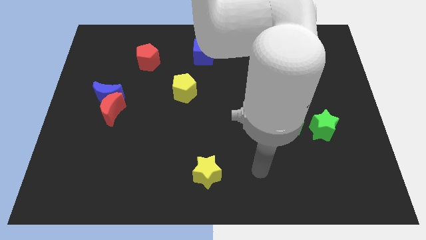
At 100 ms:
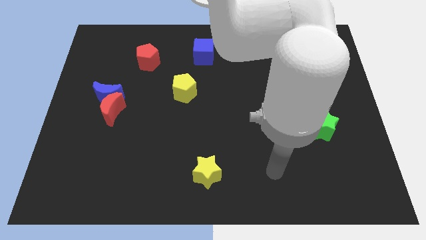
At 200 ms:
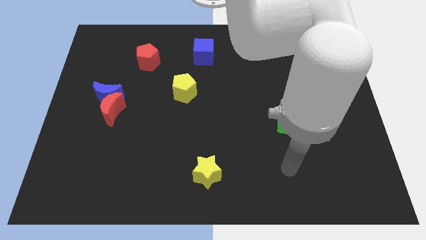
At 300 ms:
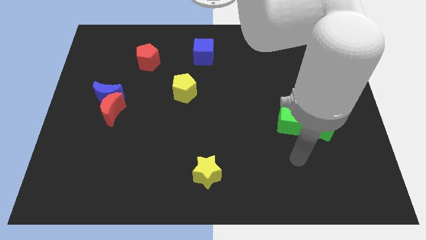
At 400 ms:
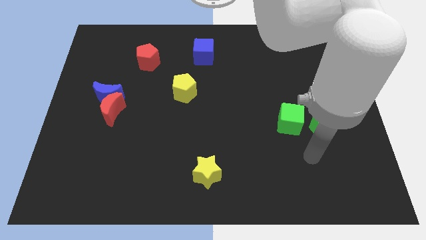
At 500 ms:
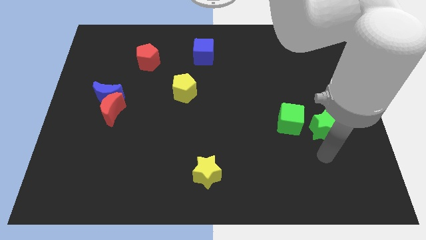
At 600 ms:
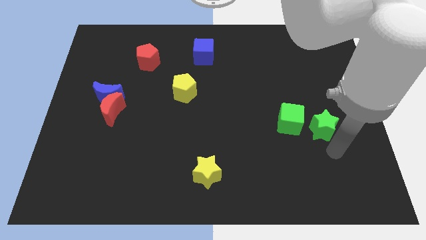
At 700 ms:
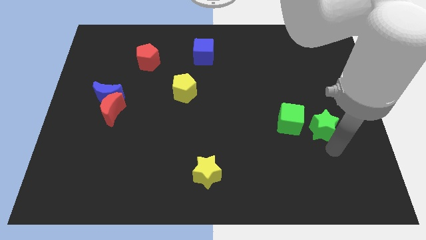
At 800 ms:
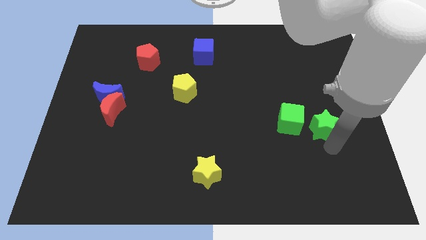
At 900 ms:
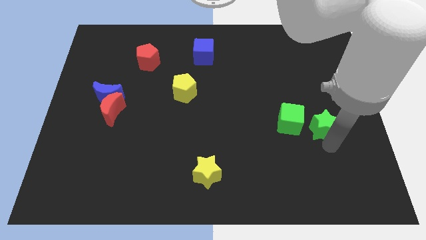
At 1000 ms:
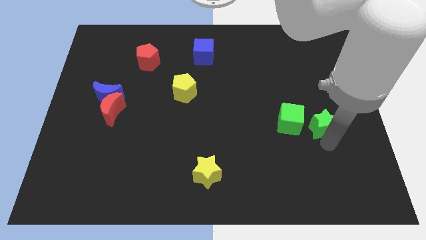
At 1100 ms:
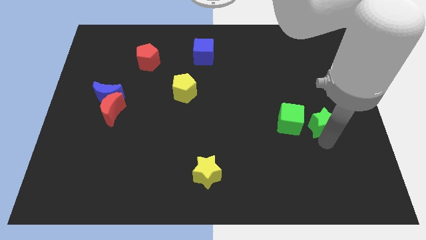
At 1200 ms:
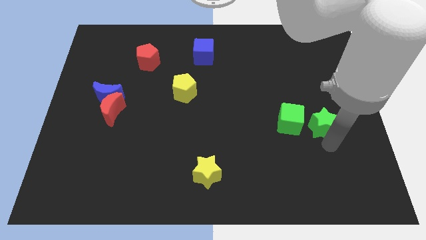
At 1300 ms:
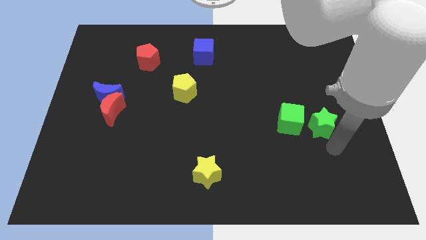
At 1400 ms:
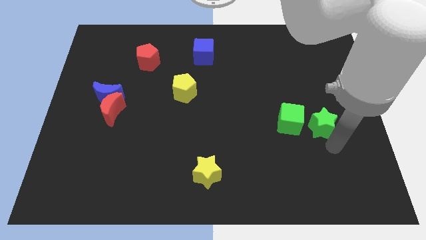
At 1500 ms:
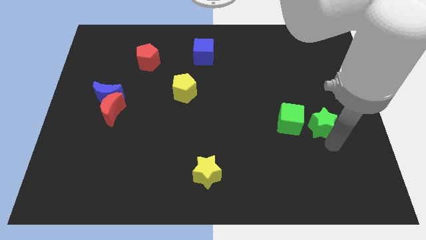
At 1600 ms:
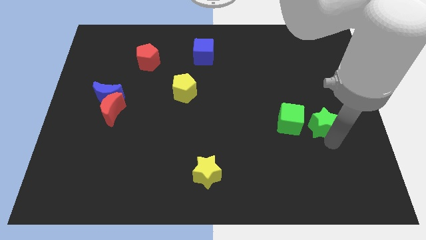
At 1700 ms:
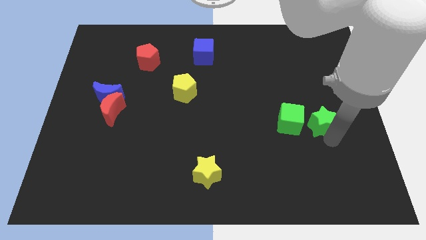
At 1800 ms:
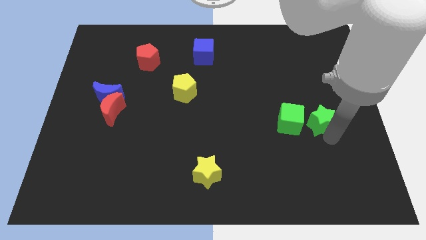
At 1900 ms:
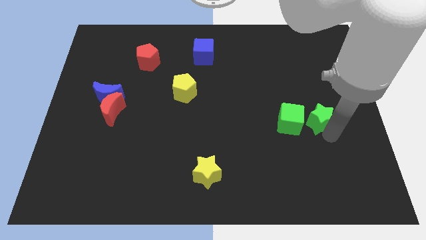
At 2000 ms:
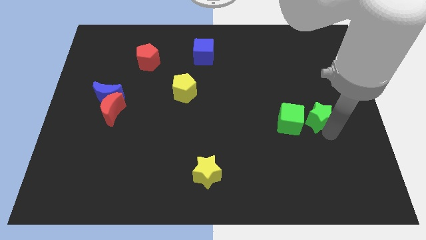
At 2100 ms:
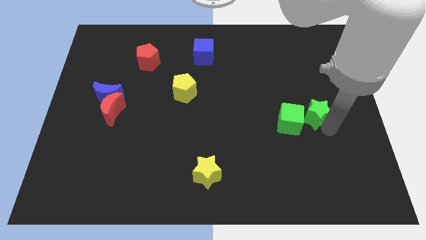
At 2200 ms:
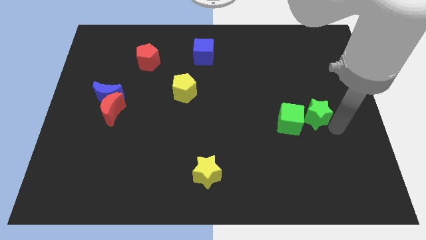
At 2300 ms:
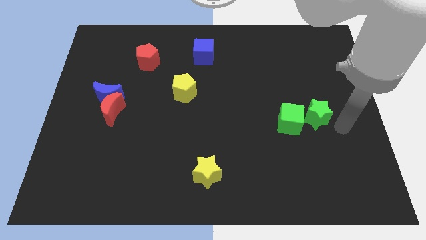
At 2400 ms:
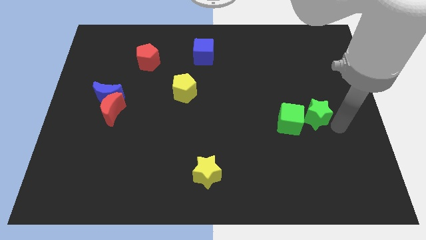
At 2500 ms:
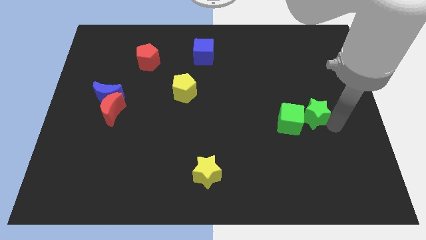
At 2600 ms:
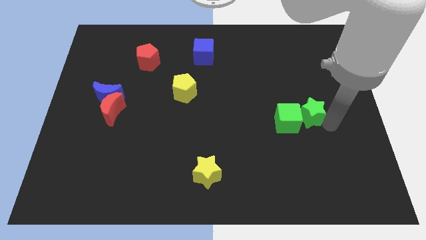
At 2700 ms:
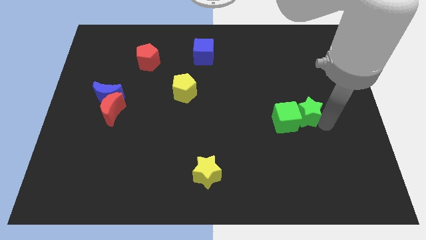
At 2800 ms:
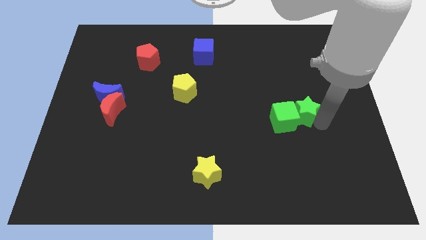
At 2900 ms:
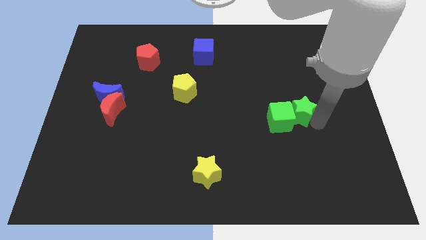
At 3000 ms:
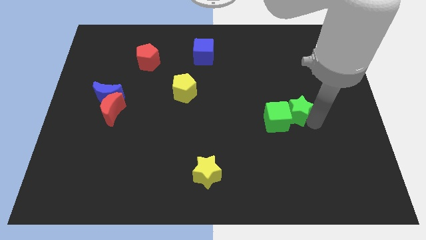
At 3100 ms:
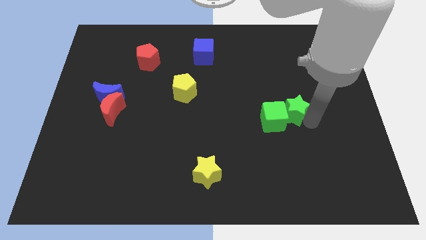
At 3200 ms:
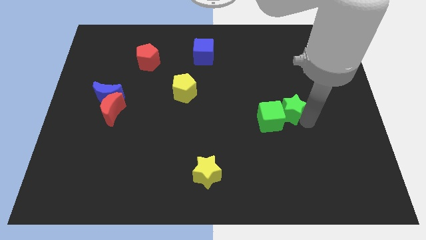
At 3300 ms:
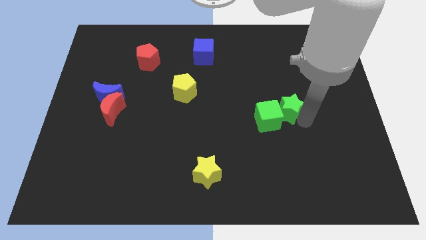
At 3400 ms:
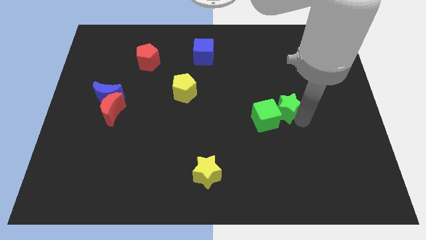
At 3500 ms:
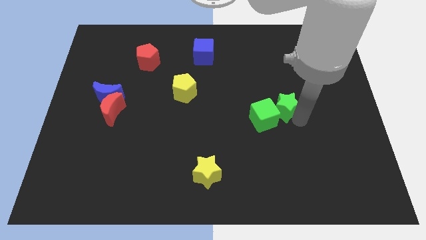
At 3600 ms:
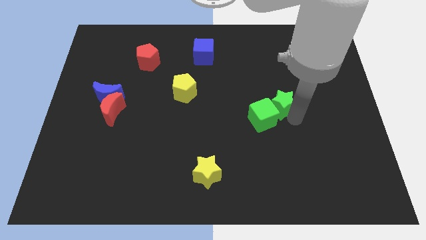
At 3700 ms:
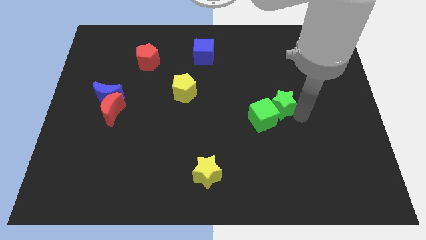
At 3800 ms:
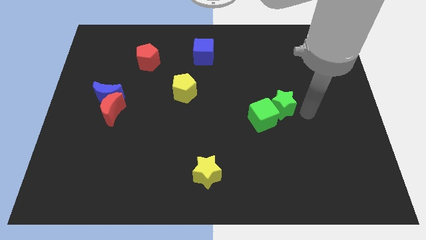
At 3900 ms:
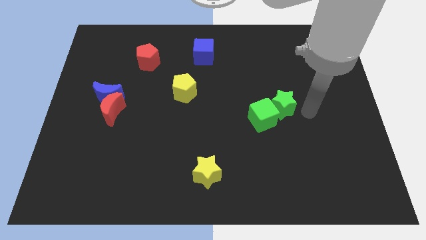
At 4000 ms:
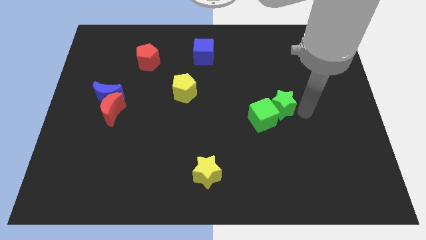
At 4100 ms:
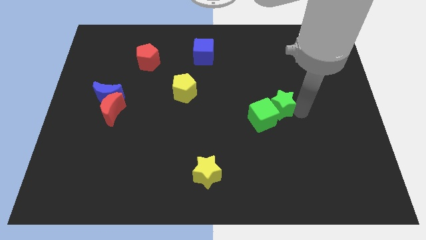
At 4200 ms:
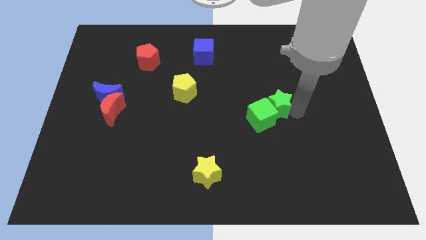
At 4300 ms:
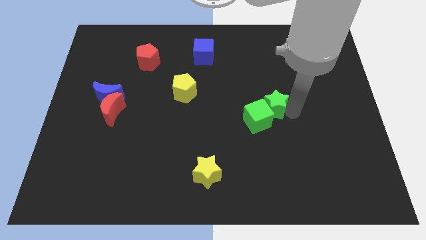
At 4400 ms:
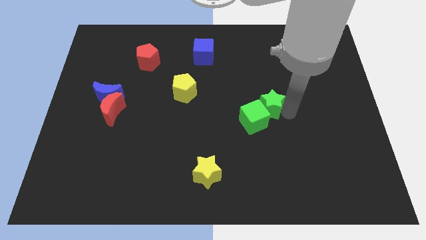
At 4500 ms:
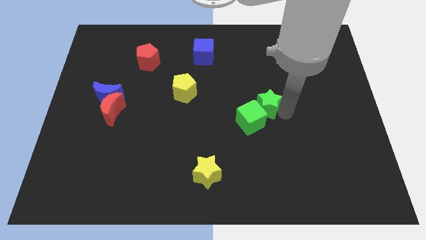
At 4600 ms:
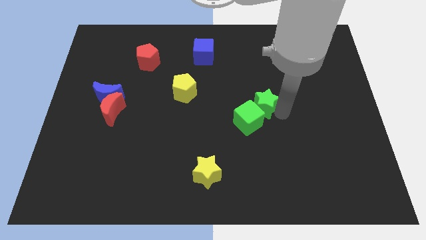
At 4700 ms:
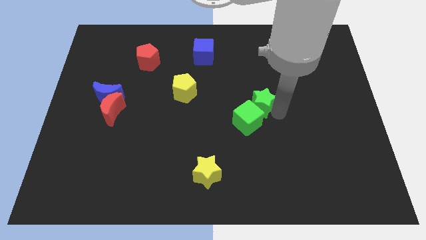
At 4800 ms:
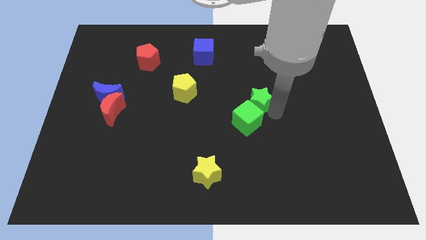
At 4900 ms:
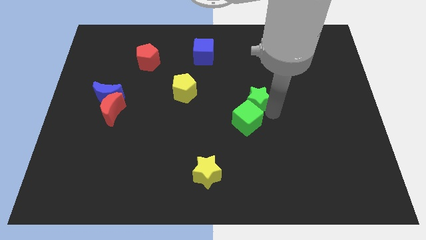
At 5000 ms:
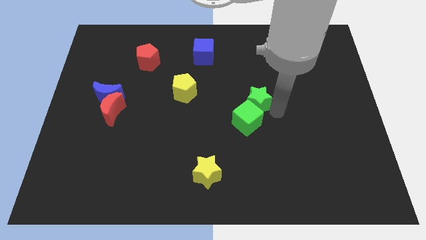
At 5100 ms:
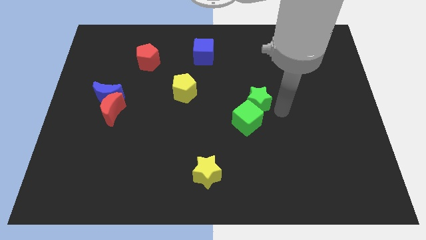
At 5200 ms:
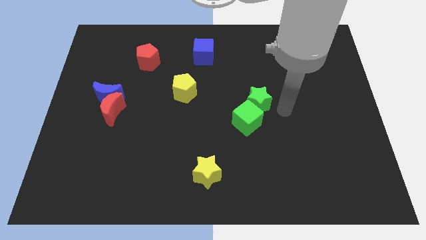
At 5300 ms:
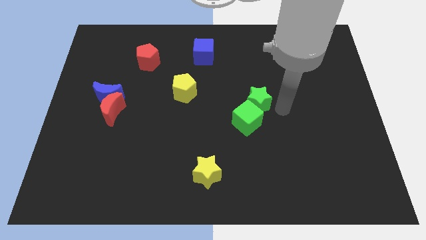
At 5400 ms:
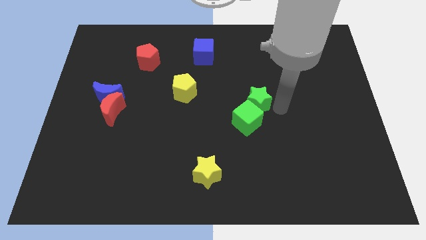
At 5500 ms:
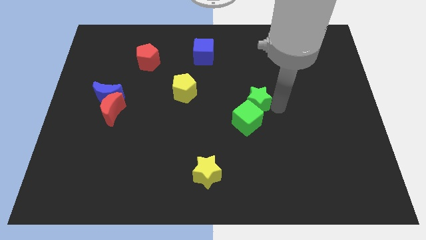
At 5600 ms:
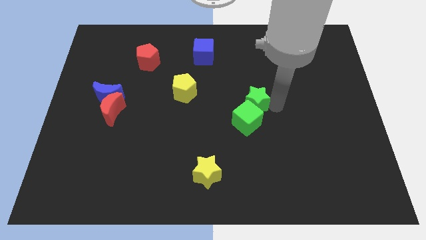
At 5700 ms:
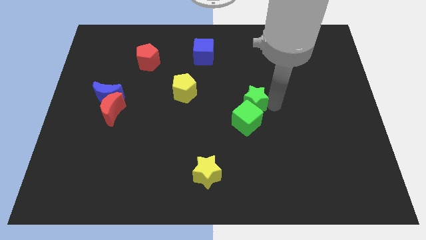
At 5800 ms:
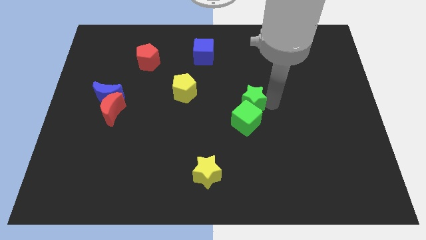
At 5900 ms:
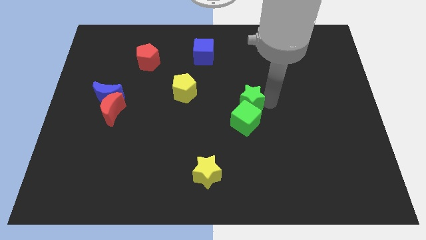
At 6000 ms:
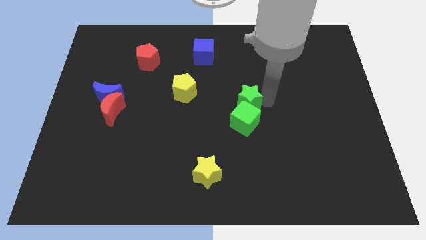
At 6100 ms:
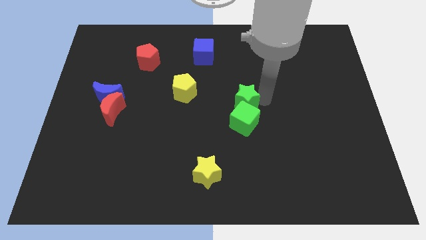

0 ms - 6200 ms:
put the green star to the right of the yellow pentagon
